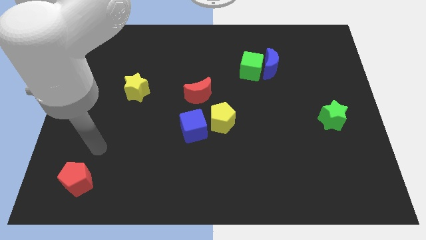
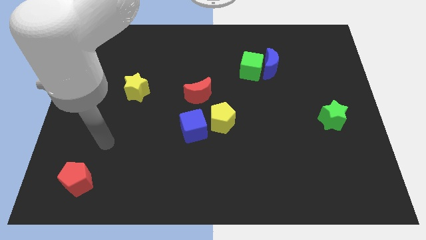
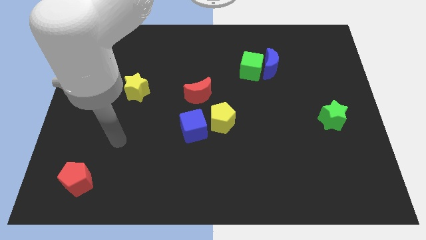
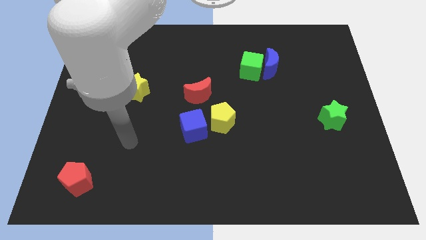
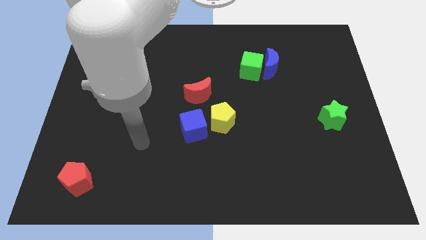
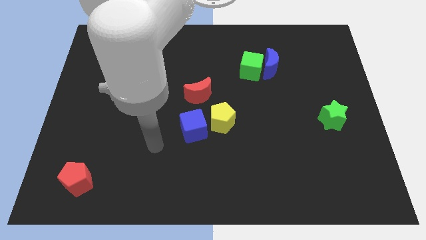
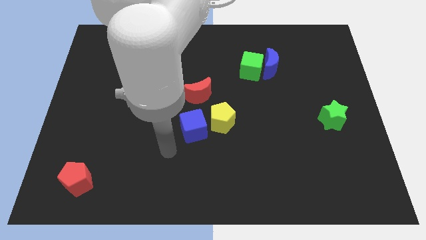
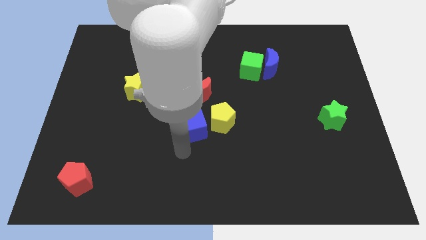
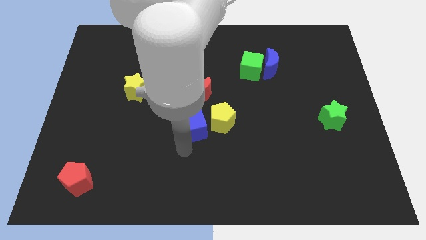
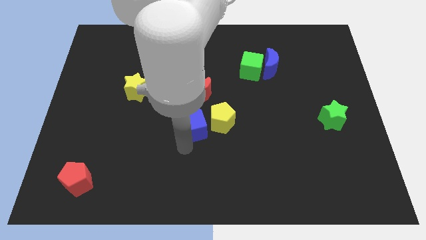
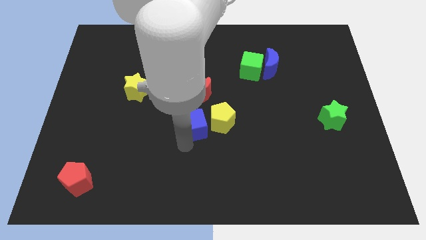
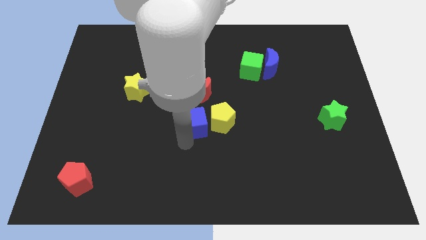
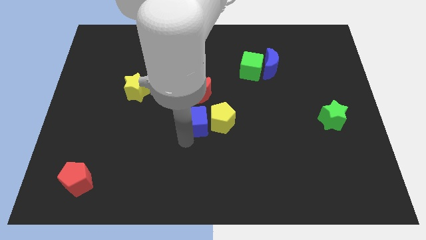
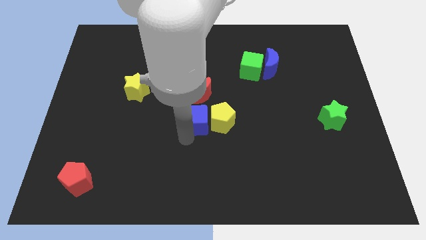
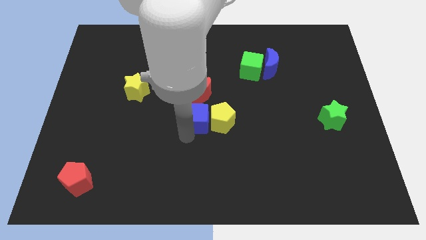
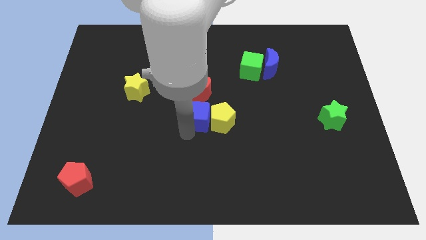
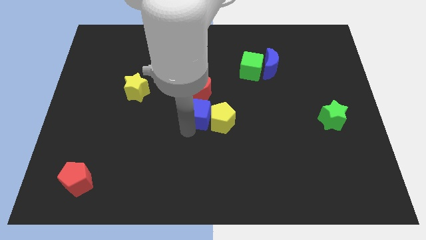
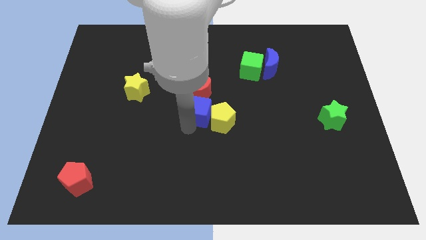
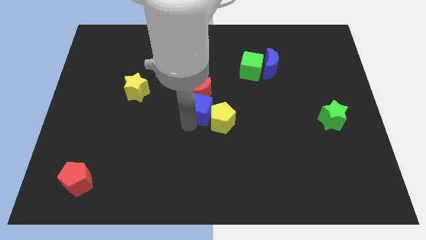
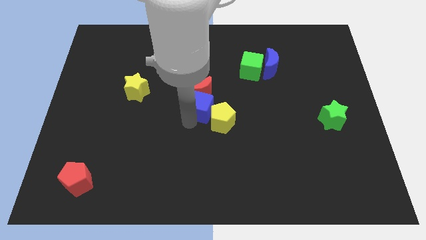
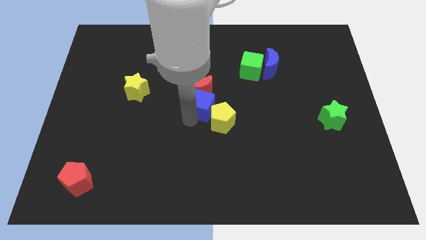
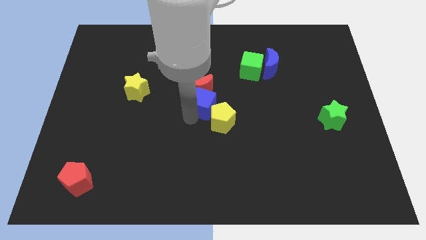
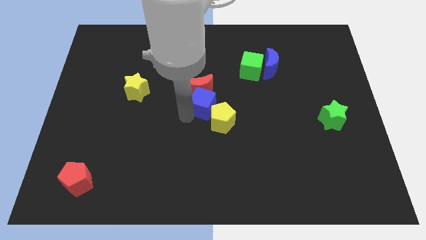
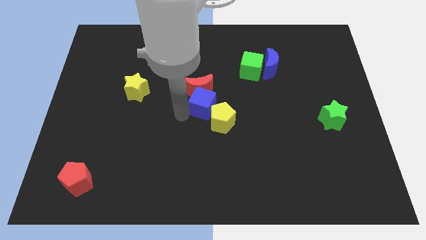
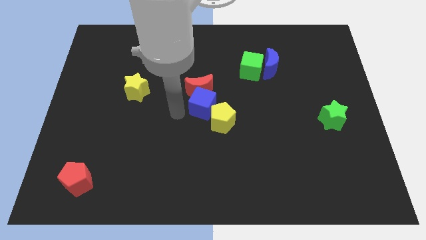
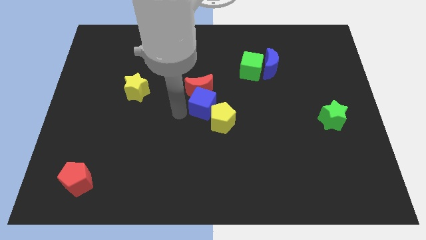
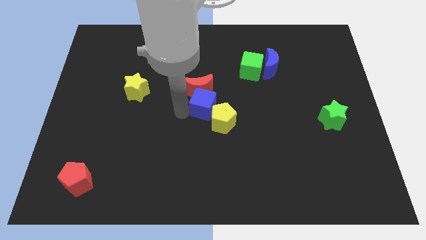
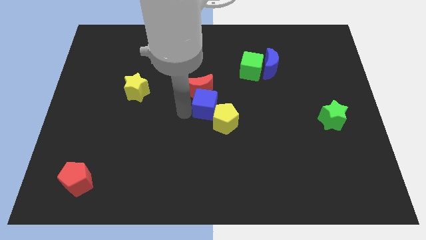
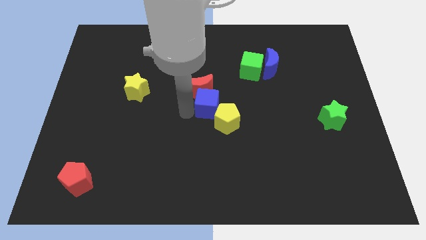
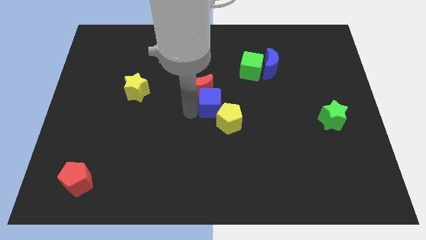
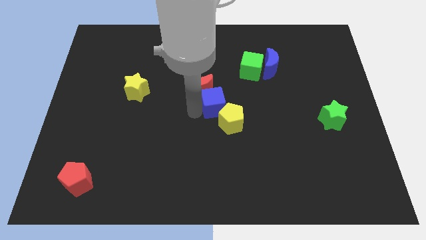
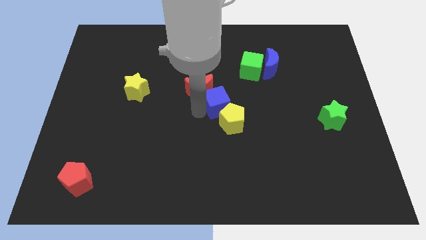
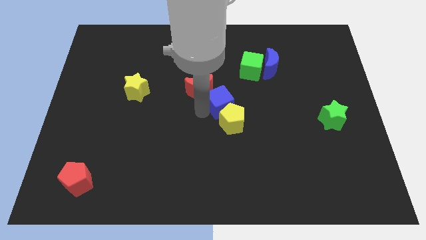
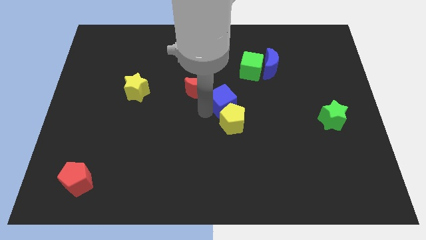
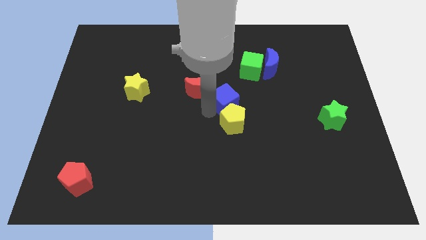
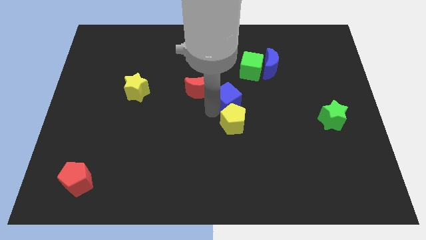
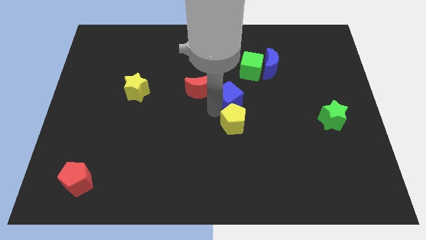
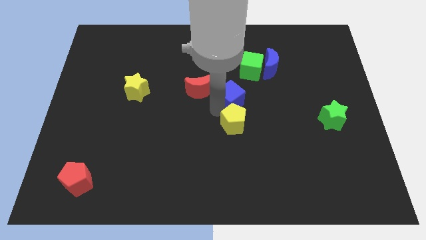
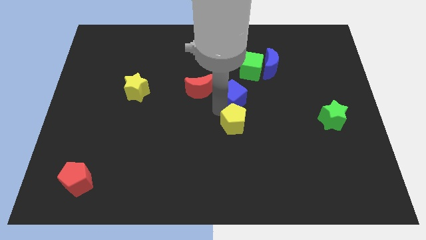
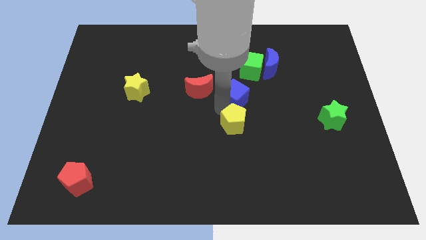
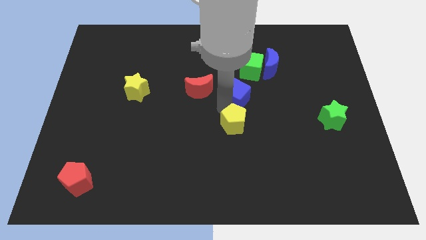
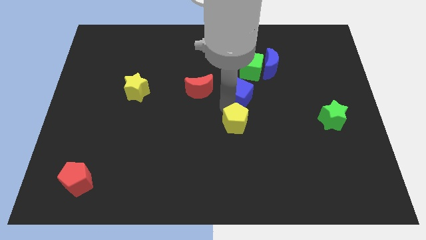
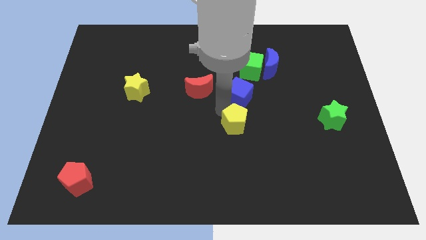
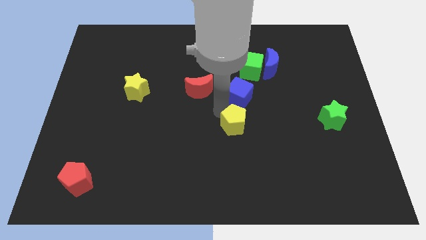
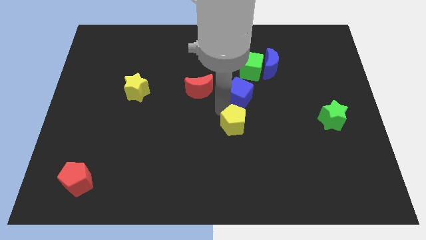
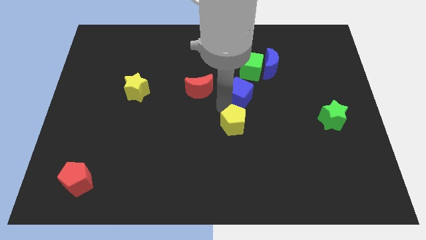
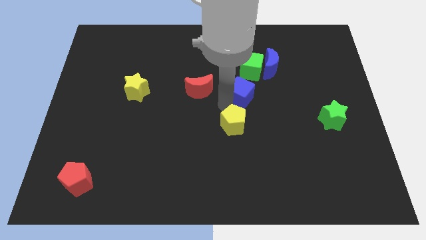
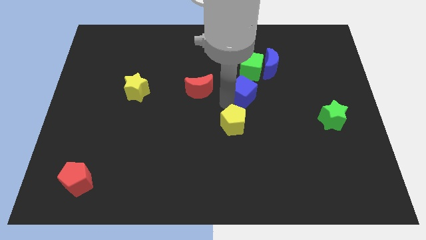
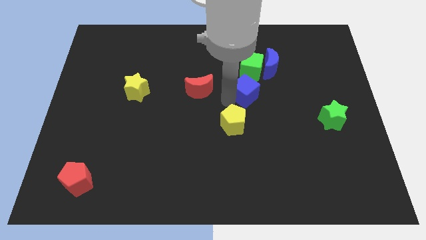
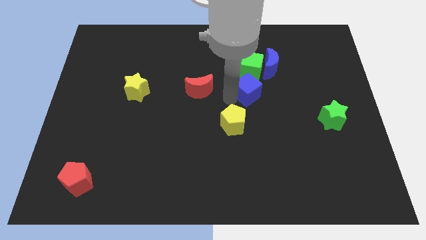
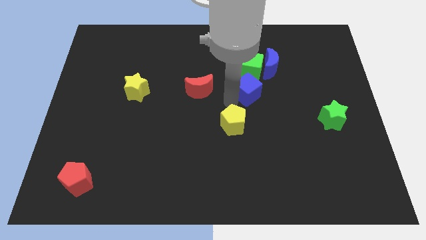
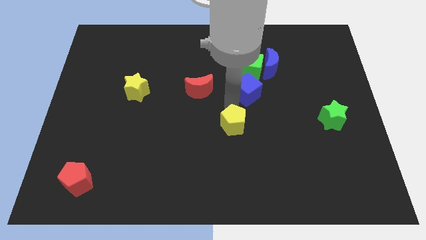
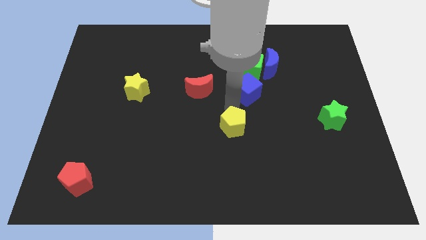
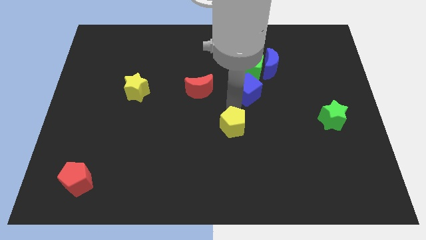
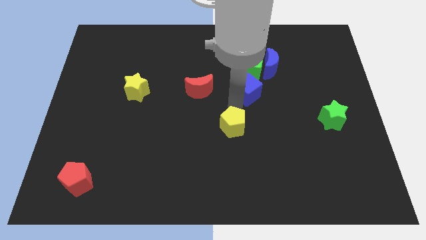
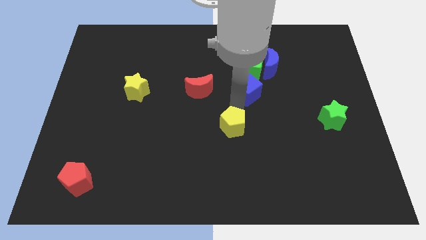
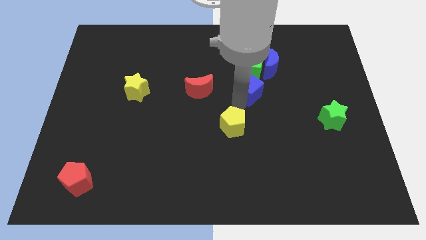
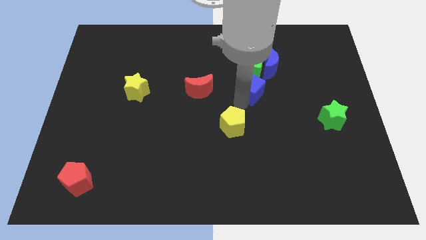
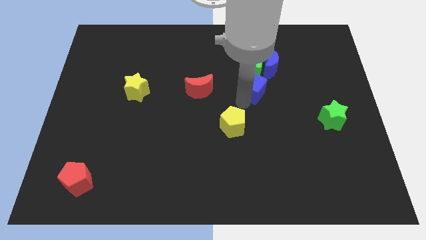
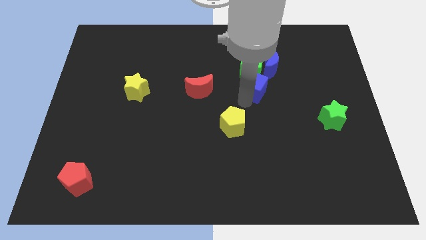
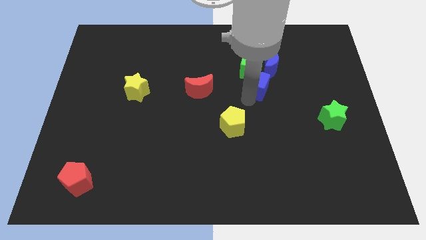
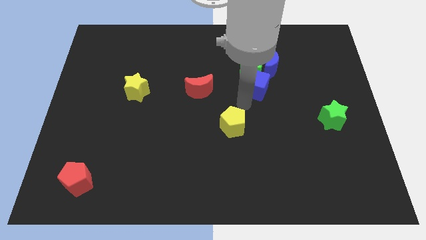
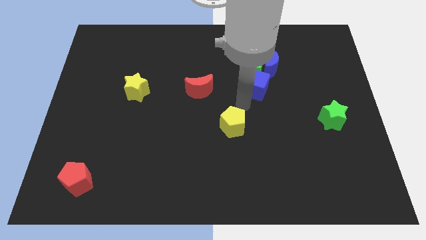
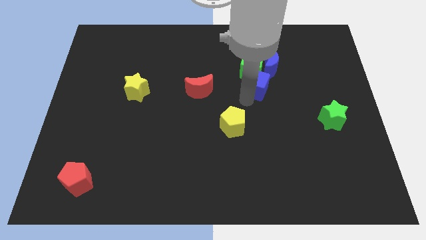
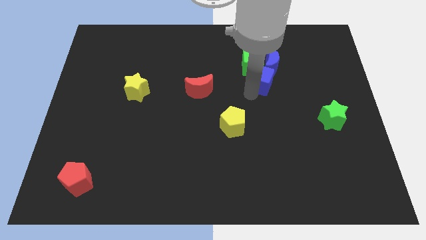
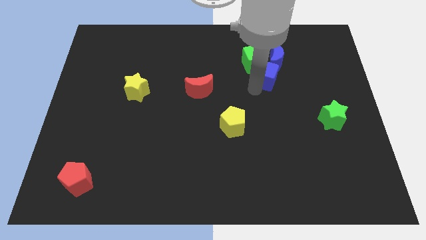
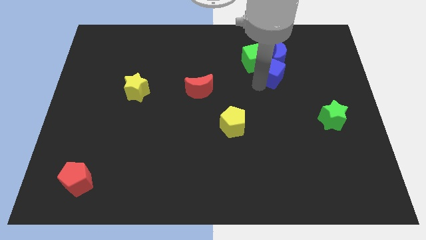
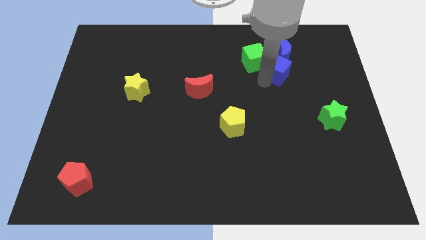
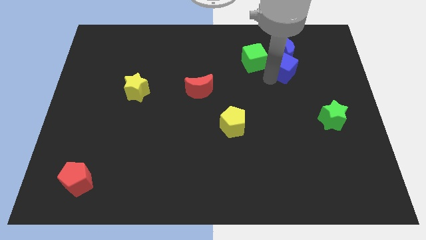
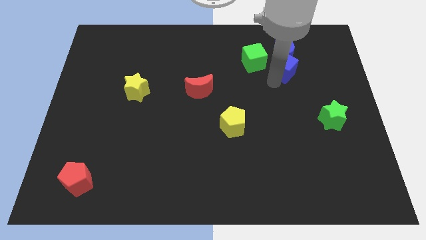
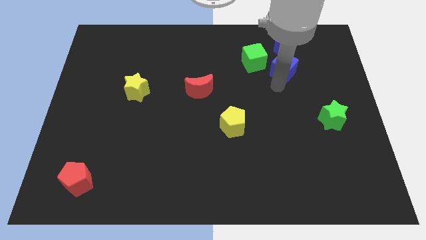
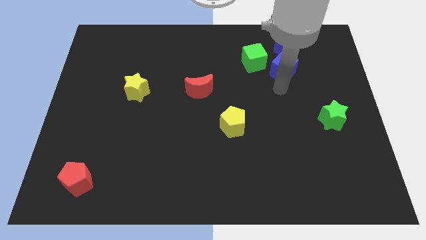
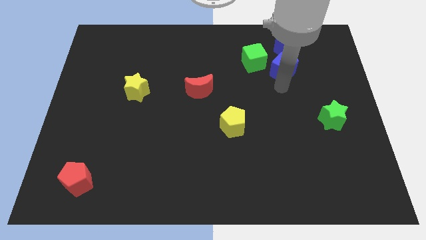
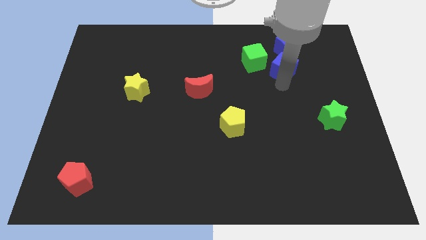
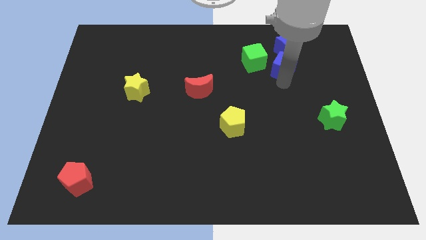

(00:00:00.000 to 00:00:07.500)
put the blue cube to the blue moon
